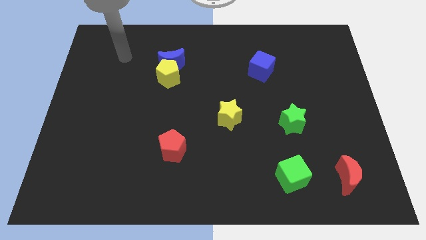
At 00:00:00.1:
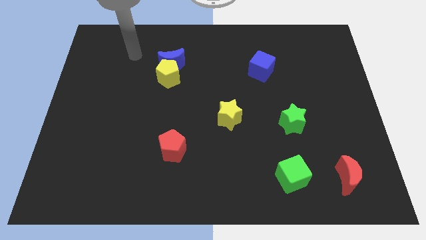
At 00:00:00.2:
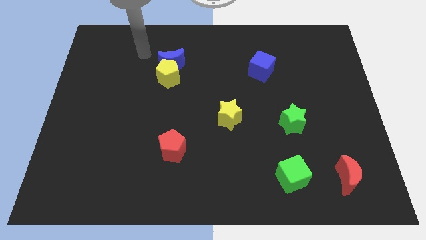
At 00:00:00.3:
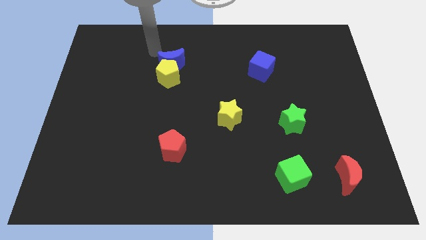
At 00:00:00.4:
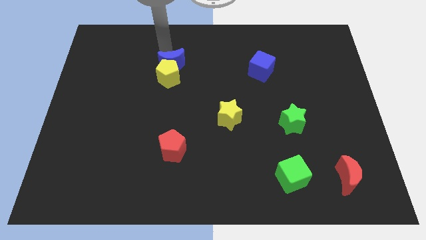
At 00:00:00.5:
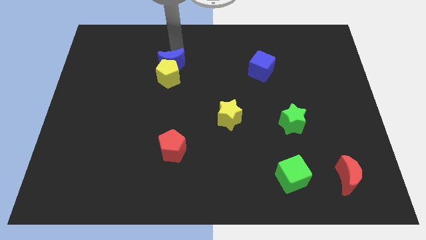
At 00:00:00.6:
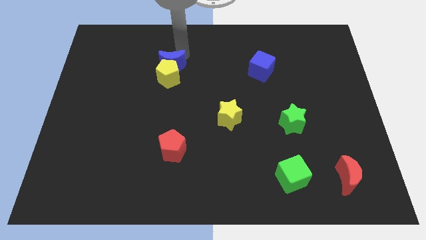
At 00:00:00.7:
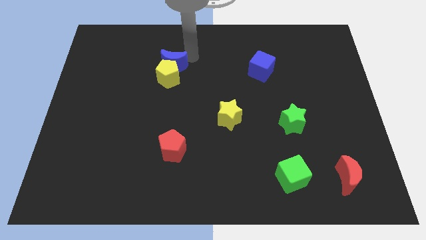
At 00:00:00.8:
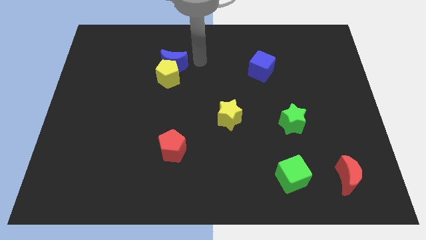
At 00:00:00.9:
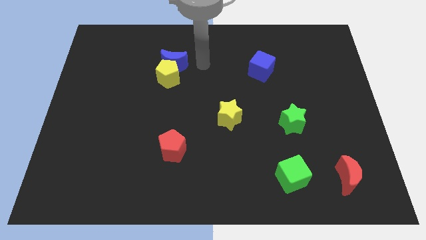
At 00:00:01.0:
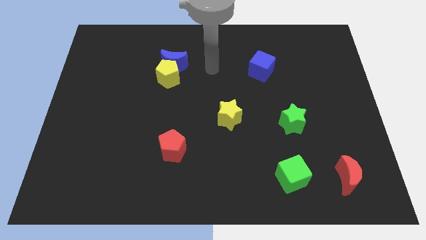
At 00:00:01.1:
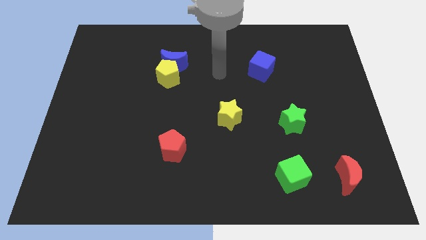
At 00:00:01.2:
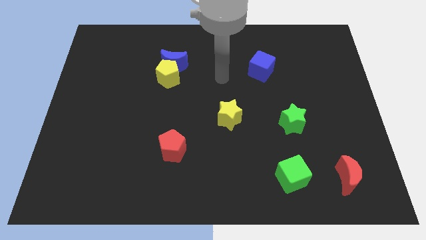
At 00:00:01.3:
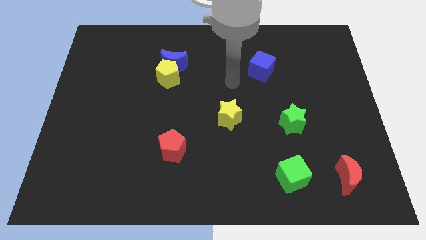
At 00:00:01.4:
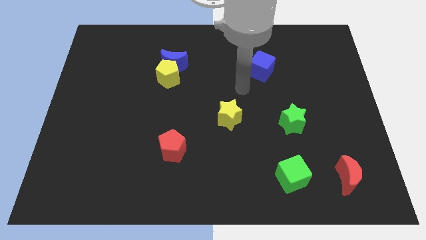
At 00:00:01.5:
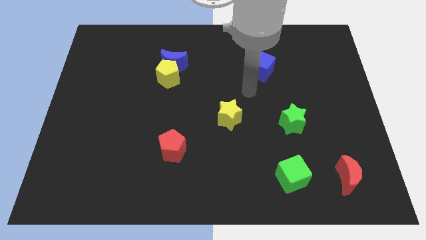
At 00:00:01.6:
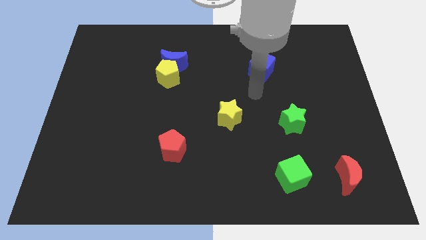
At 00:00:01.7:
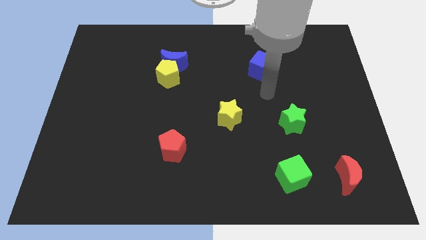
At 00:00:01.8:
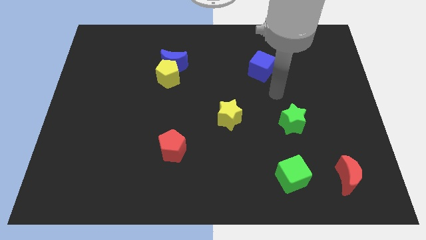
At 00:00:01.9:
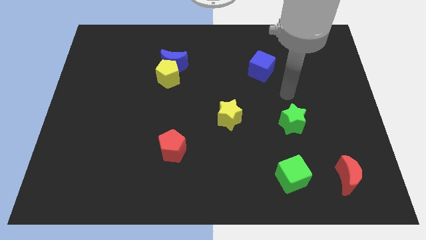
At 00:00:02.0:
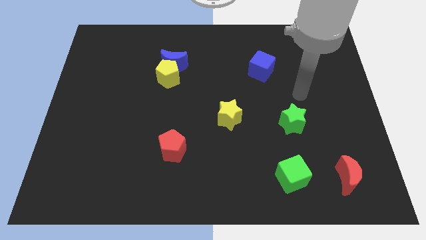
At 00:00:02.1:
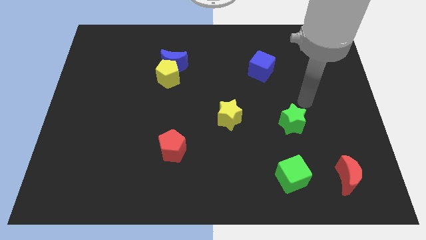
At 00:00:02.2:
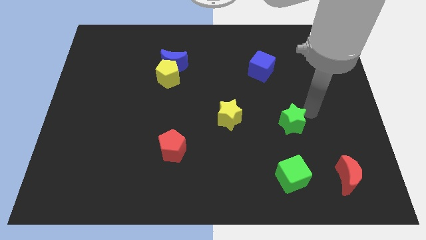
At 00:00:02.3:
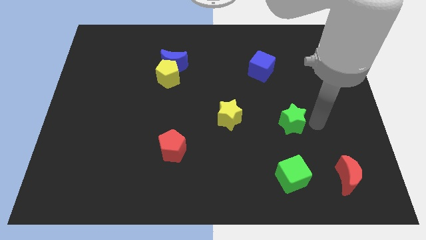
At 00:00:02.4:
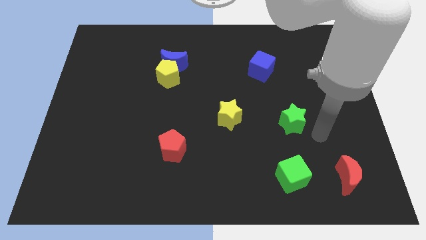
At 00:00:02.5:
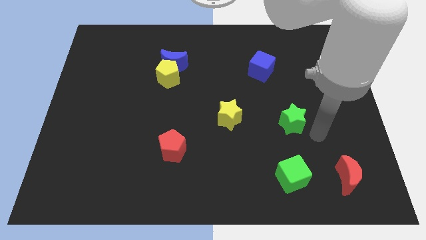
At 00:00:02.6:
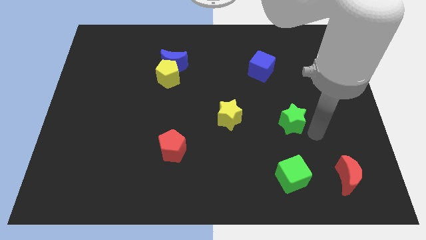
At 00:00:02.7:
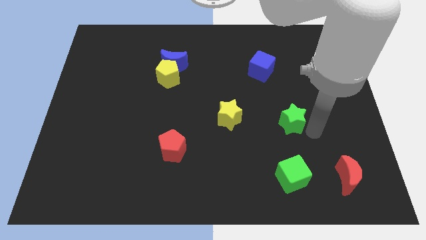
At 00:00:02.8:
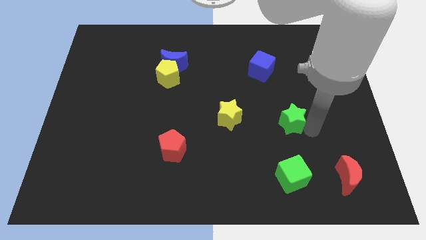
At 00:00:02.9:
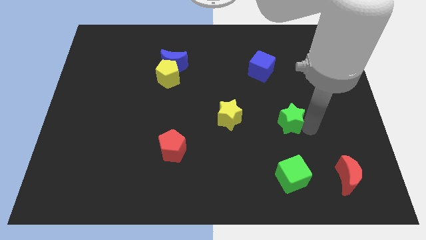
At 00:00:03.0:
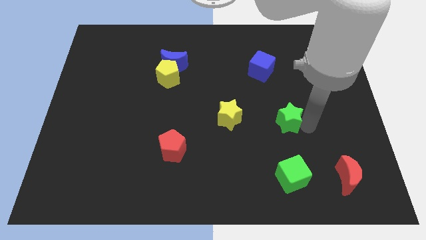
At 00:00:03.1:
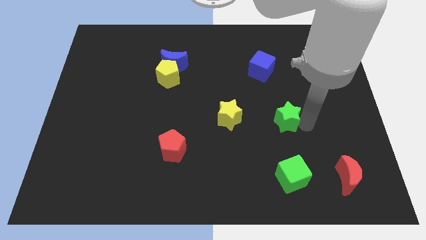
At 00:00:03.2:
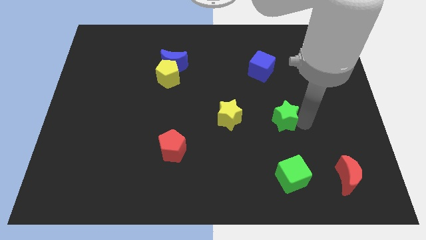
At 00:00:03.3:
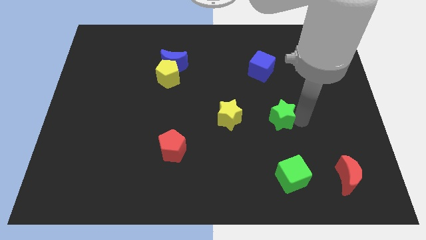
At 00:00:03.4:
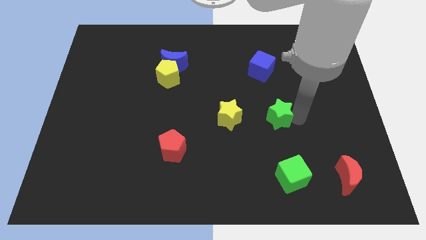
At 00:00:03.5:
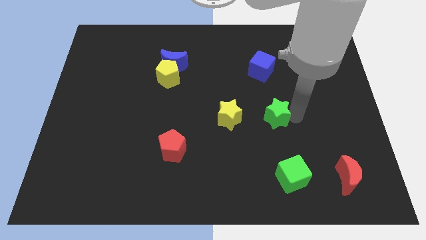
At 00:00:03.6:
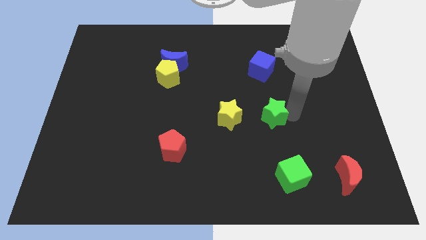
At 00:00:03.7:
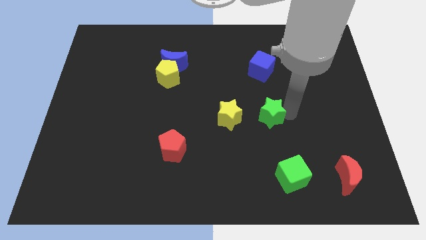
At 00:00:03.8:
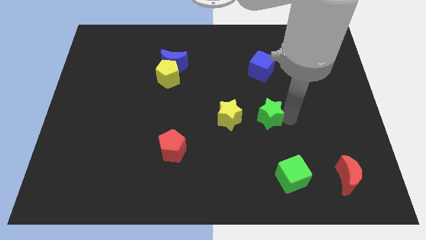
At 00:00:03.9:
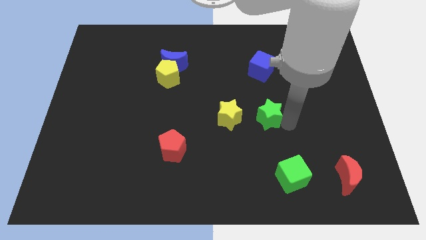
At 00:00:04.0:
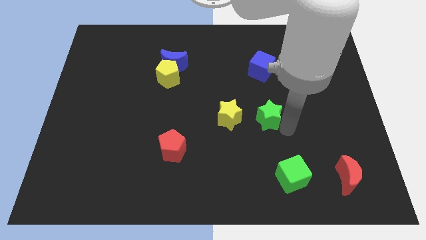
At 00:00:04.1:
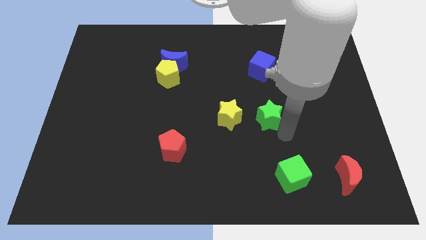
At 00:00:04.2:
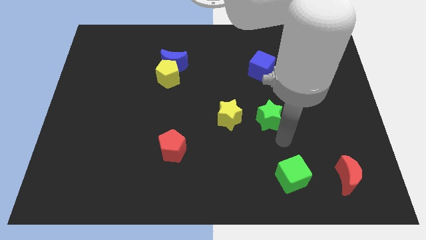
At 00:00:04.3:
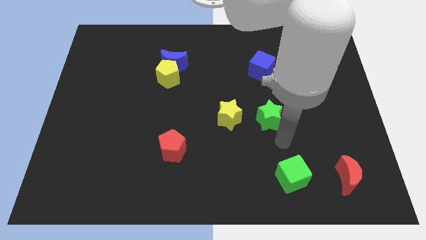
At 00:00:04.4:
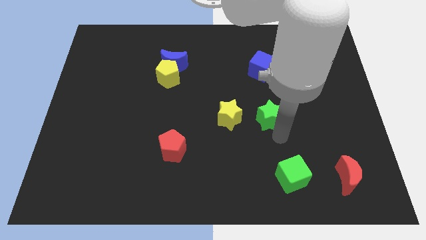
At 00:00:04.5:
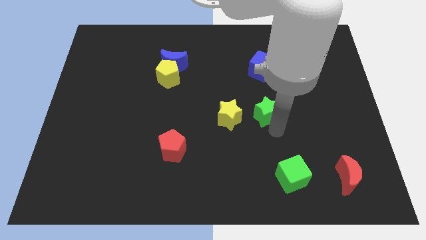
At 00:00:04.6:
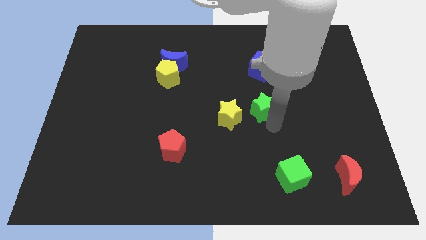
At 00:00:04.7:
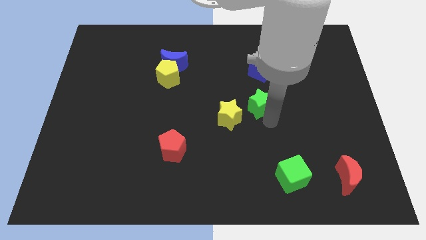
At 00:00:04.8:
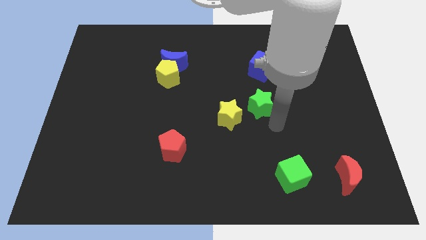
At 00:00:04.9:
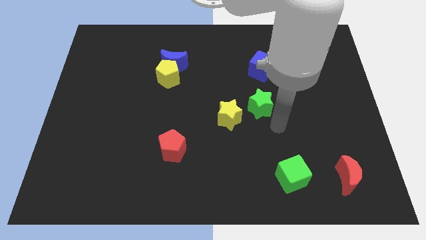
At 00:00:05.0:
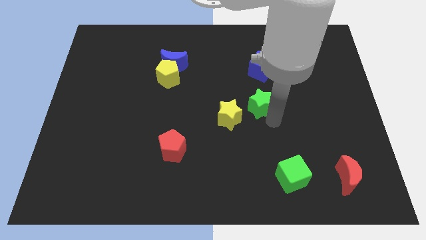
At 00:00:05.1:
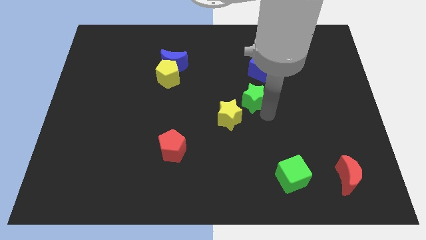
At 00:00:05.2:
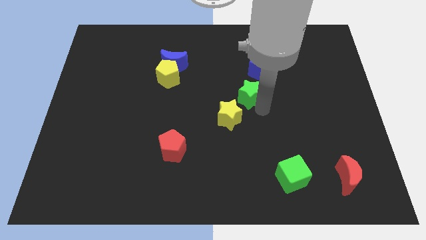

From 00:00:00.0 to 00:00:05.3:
put the green star to the bottom left side of the blue cube

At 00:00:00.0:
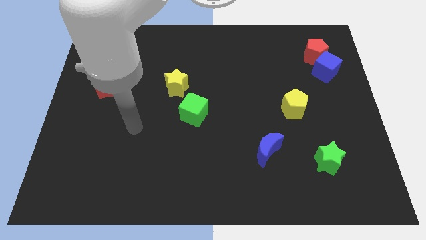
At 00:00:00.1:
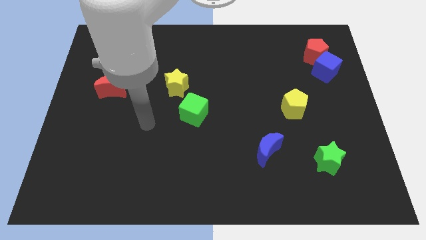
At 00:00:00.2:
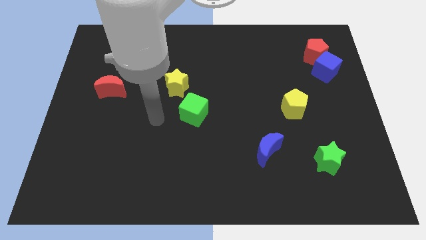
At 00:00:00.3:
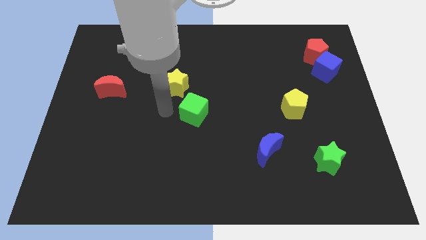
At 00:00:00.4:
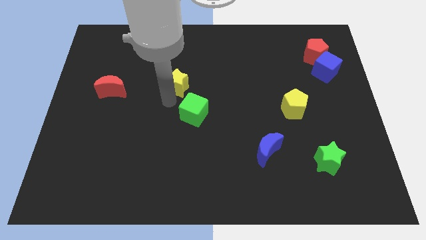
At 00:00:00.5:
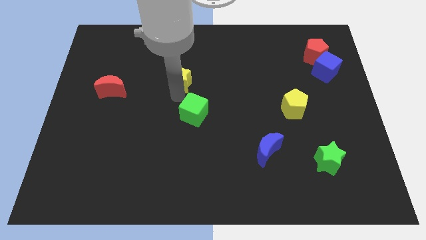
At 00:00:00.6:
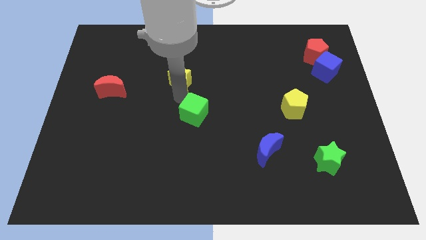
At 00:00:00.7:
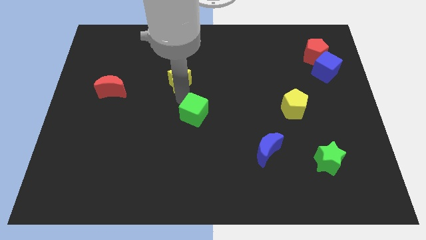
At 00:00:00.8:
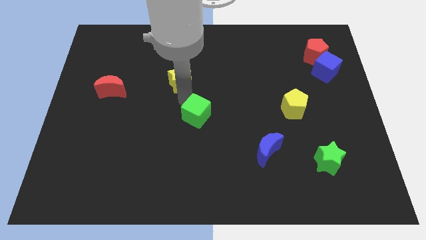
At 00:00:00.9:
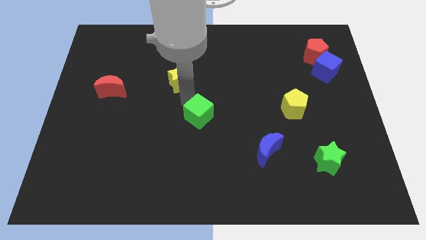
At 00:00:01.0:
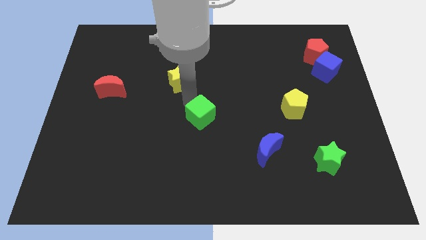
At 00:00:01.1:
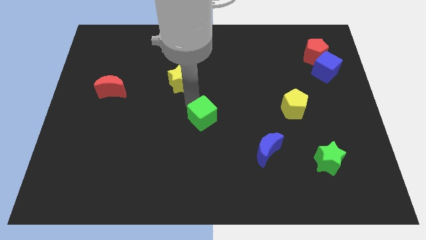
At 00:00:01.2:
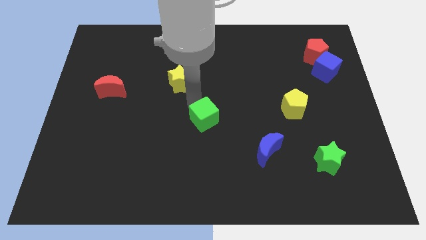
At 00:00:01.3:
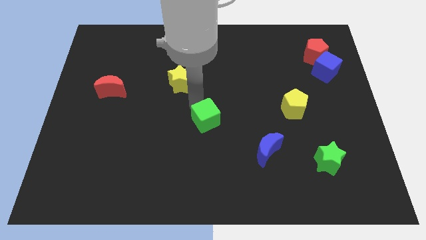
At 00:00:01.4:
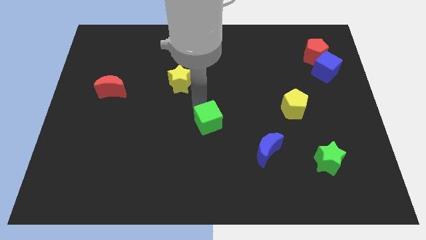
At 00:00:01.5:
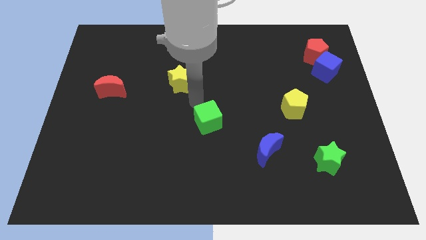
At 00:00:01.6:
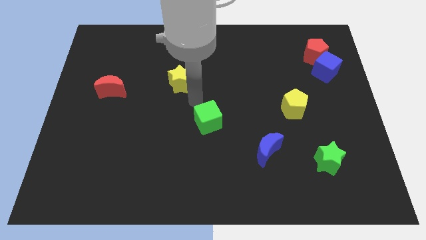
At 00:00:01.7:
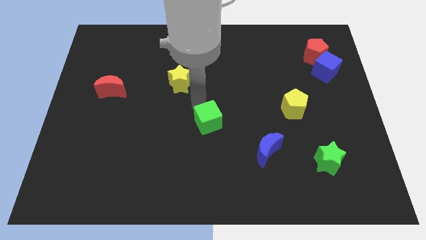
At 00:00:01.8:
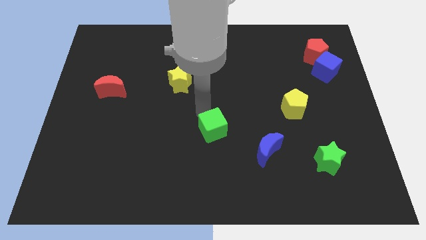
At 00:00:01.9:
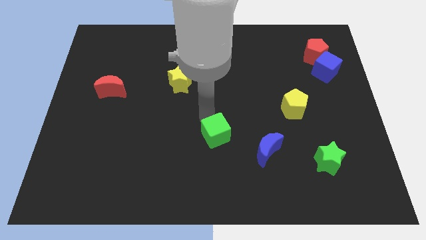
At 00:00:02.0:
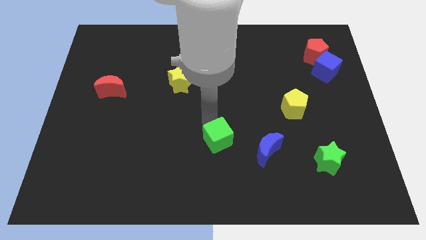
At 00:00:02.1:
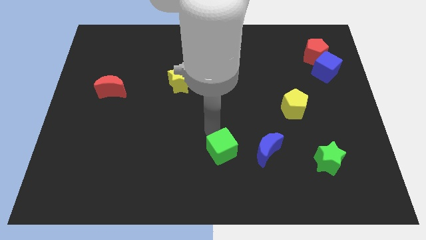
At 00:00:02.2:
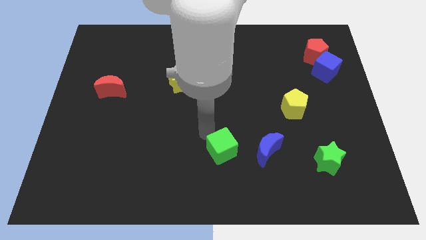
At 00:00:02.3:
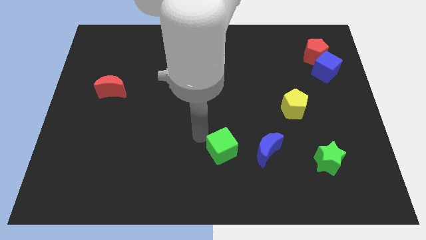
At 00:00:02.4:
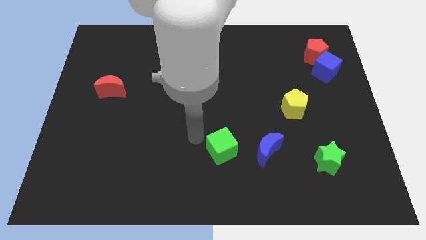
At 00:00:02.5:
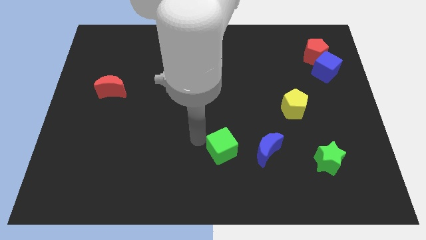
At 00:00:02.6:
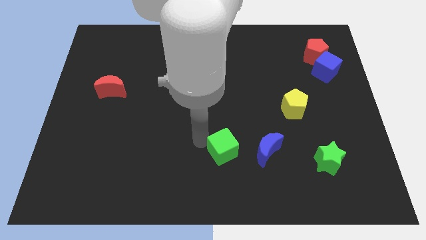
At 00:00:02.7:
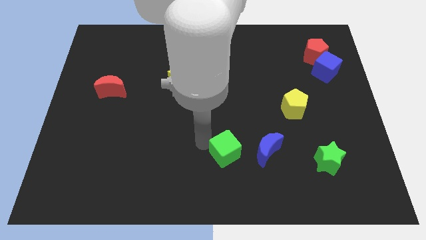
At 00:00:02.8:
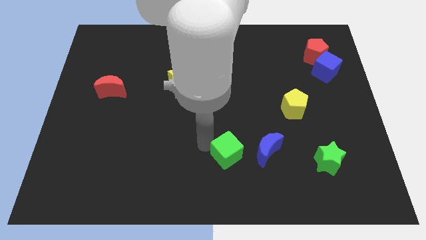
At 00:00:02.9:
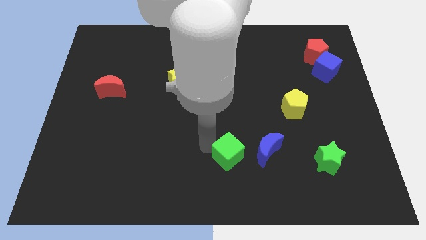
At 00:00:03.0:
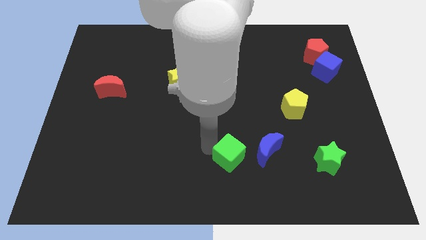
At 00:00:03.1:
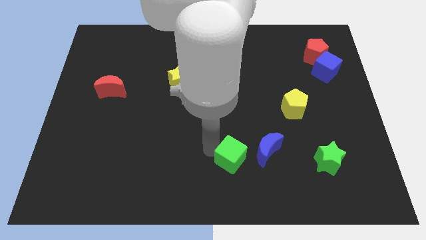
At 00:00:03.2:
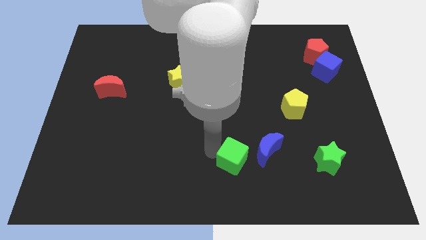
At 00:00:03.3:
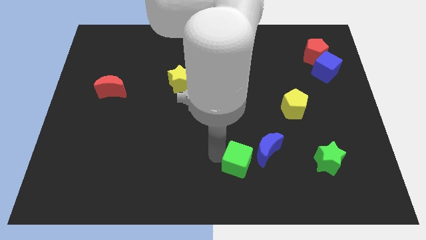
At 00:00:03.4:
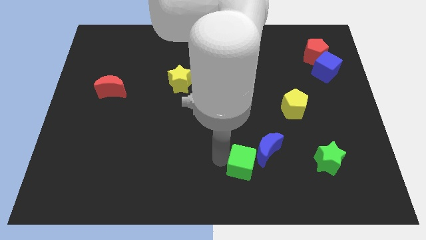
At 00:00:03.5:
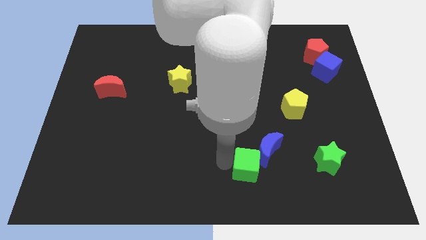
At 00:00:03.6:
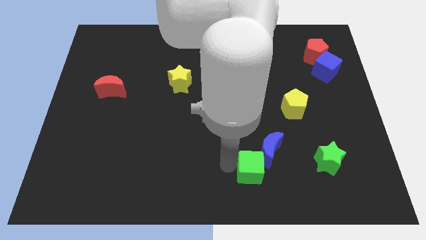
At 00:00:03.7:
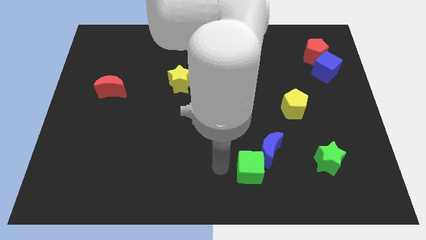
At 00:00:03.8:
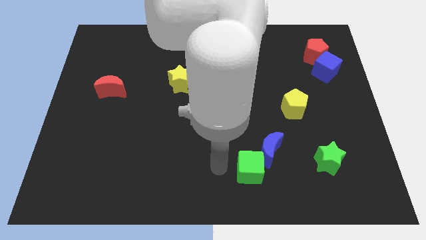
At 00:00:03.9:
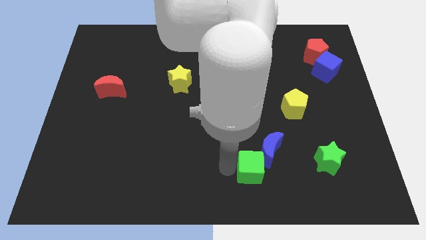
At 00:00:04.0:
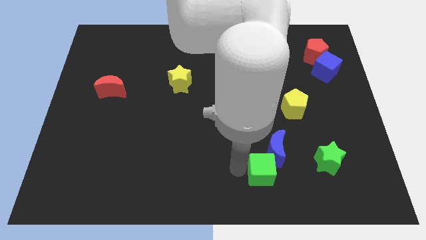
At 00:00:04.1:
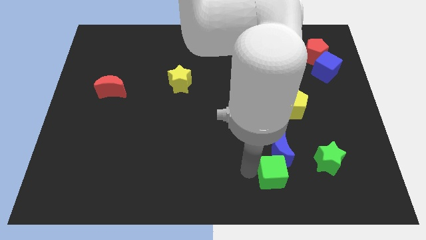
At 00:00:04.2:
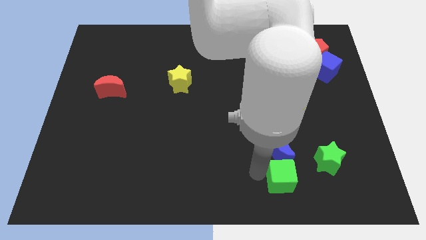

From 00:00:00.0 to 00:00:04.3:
put the green cube to the bottom right side of the blue moon
